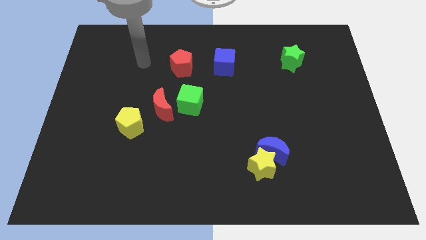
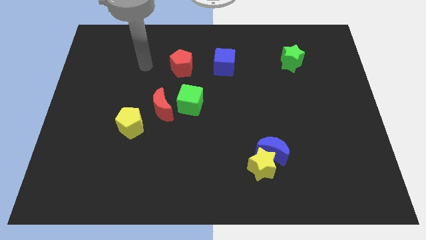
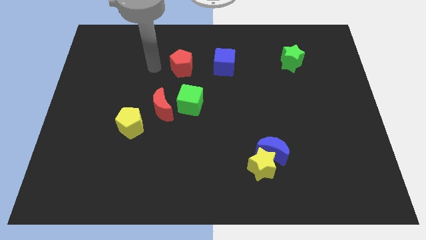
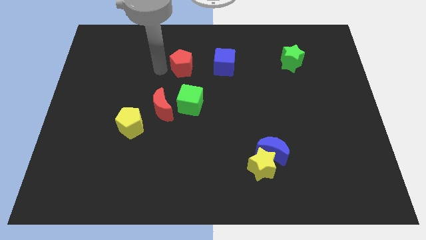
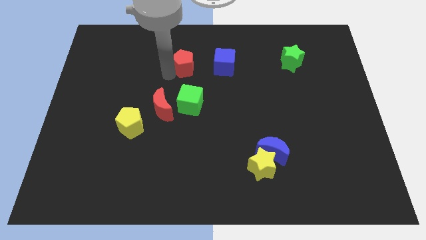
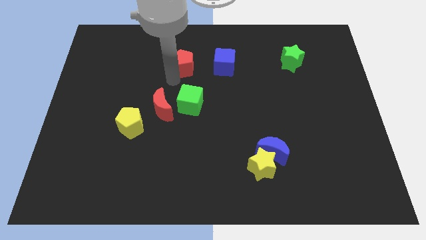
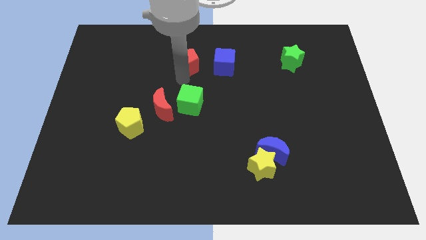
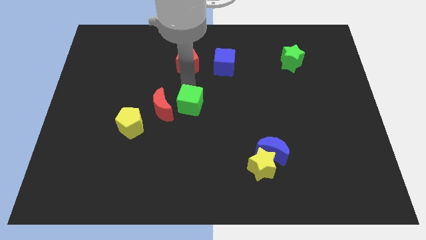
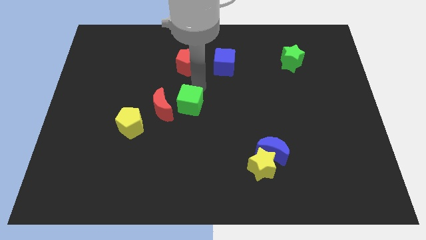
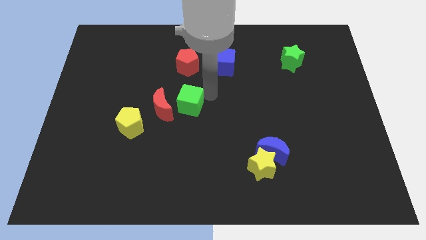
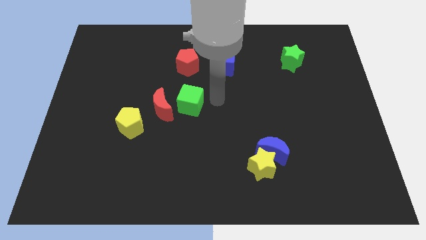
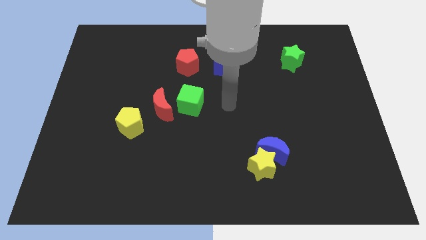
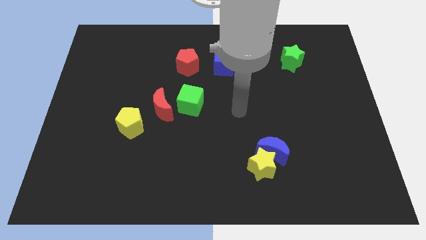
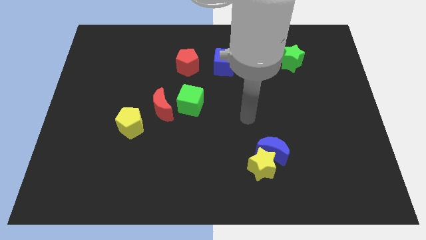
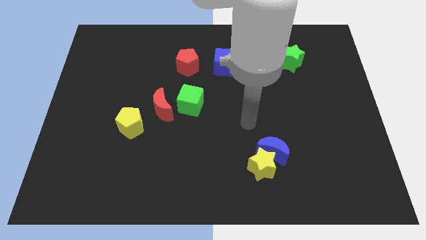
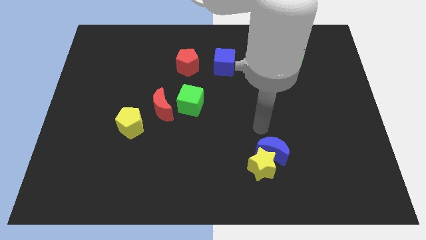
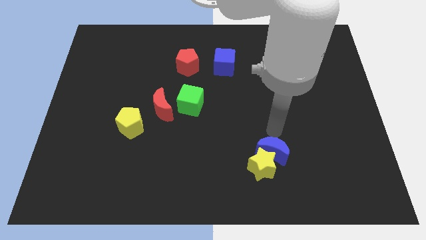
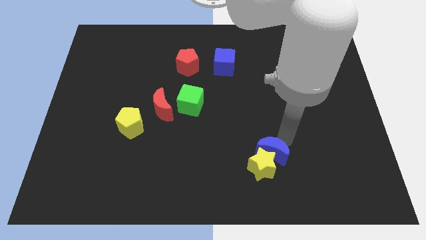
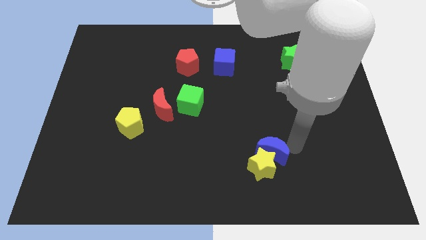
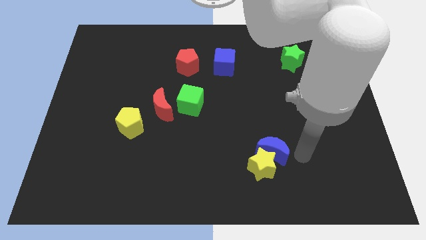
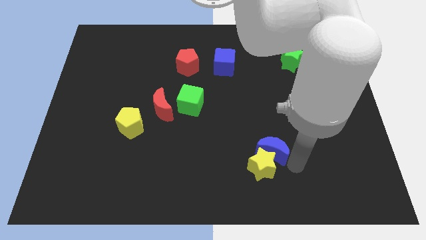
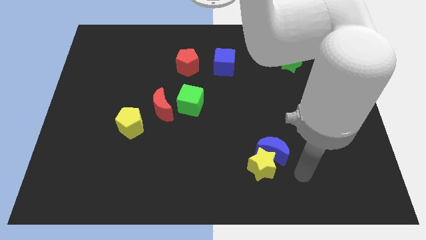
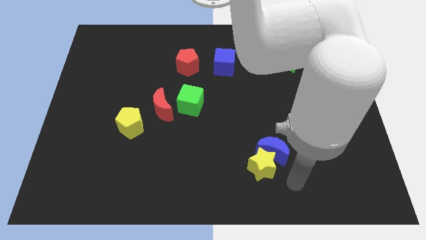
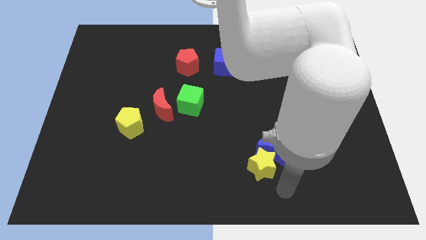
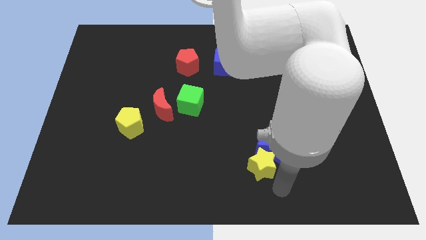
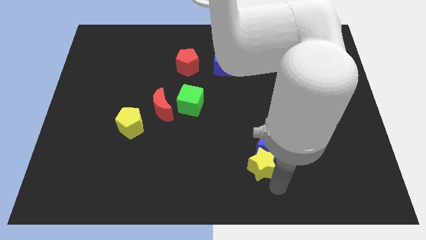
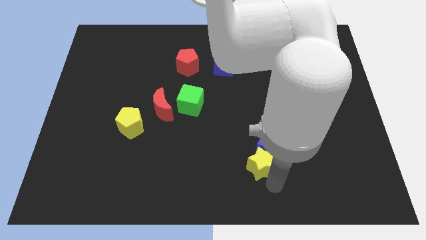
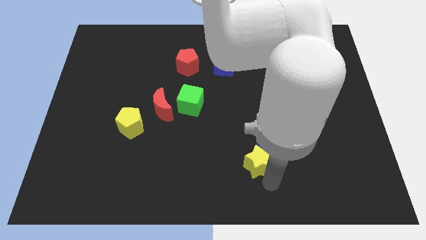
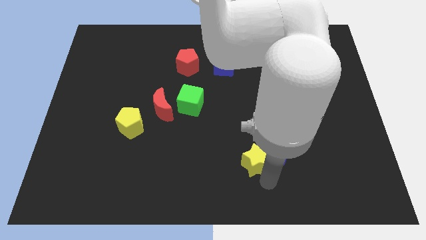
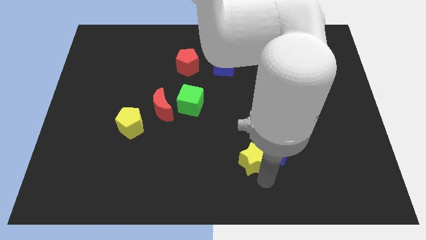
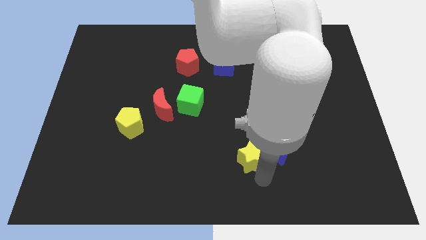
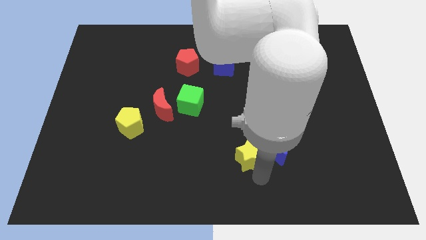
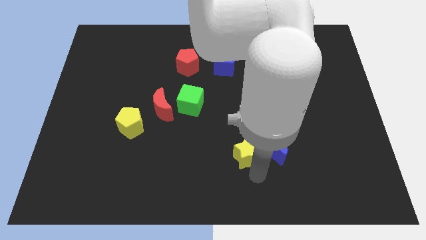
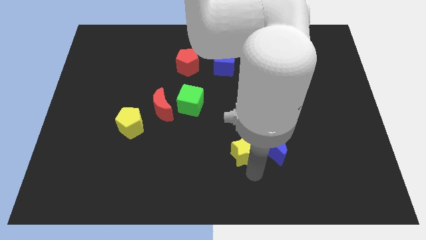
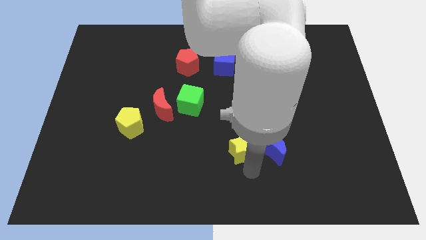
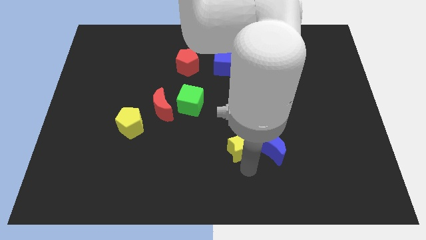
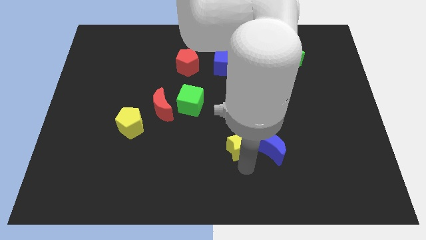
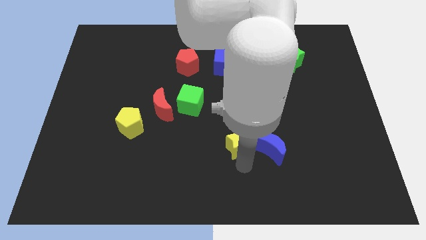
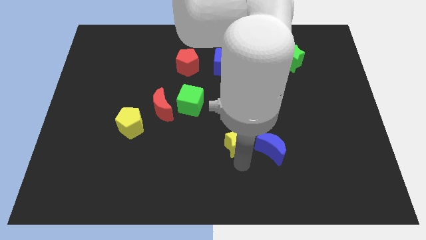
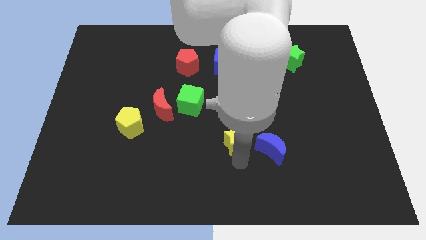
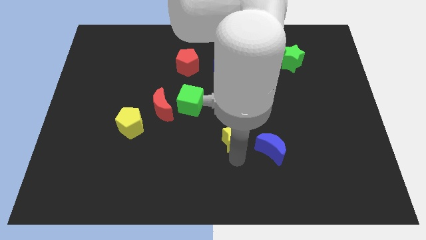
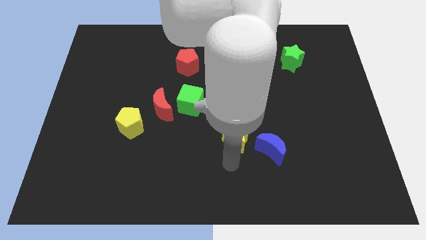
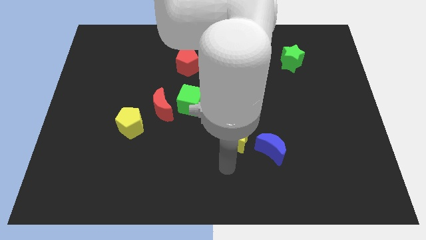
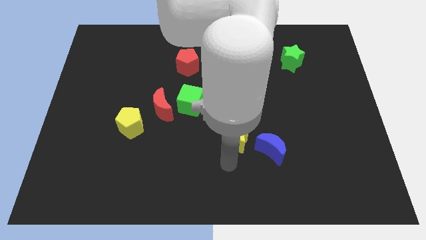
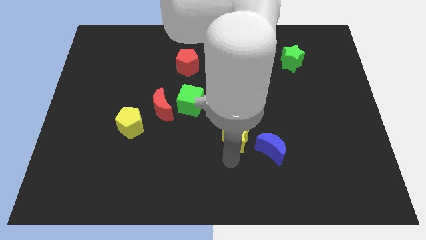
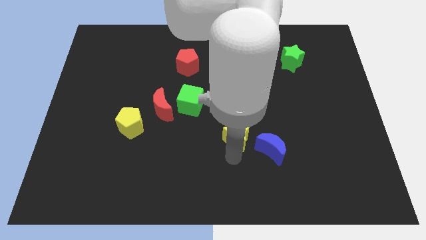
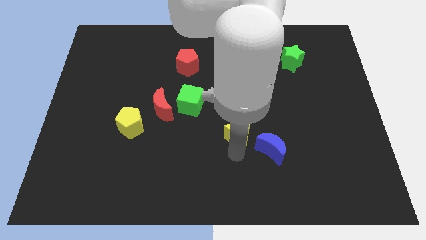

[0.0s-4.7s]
slightly push the yellow star upwards

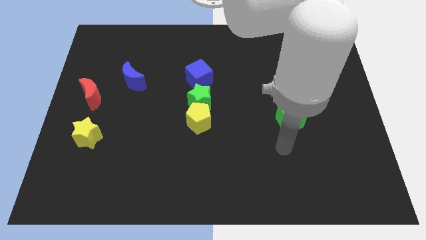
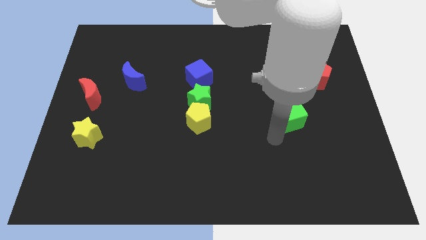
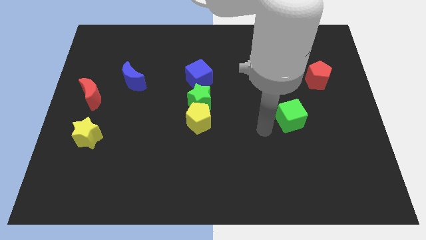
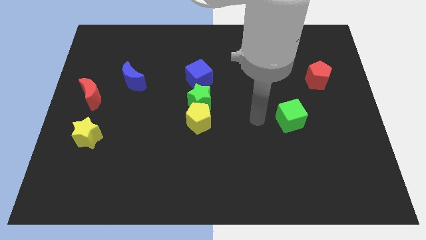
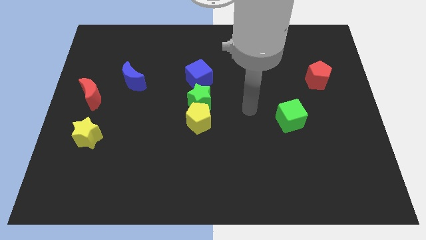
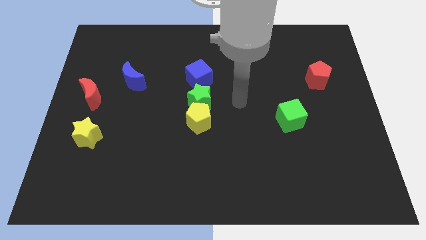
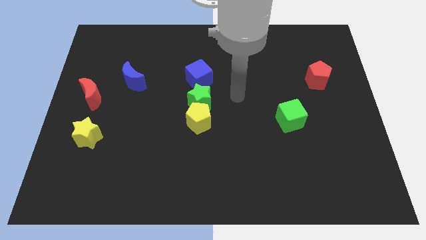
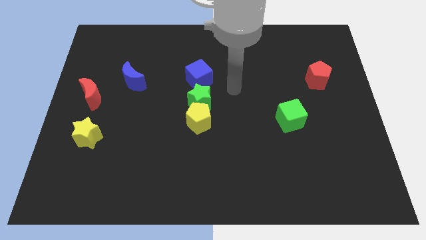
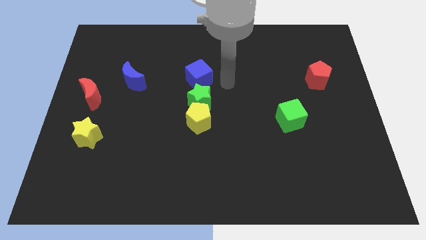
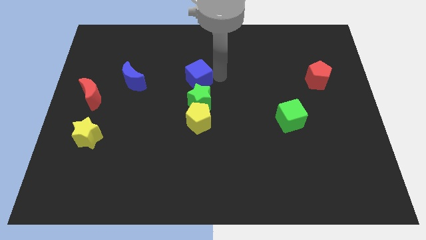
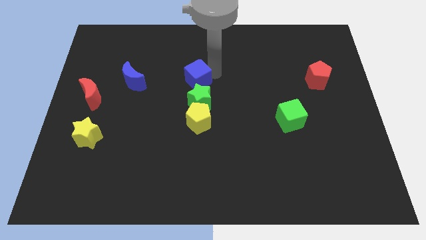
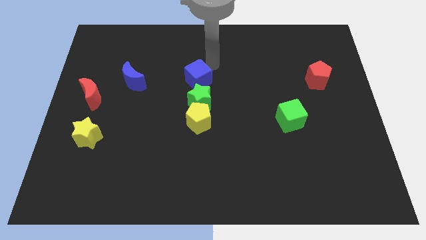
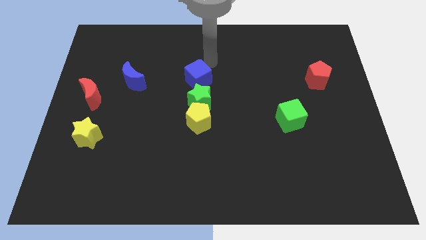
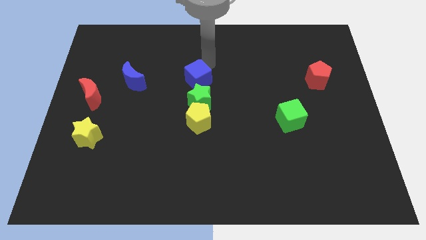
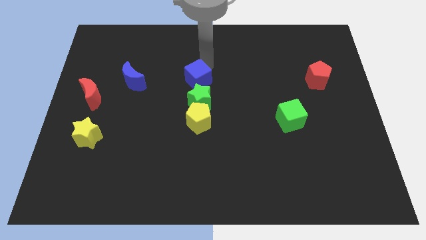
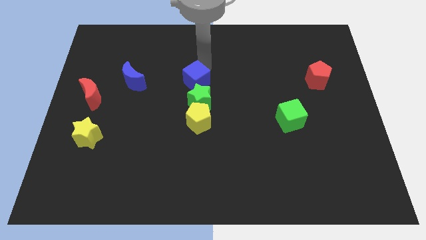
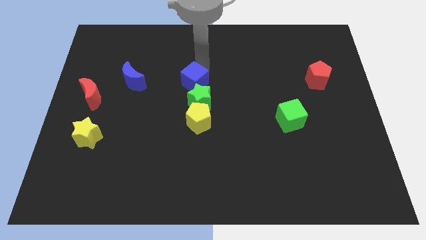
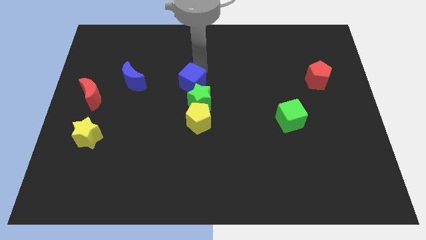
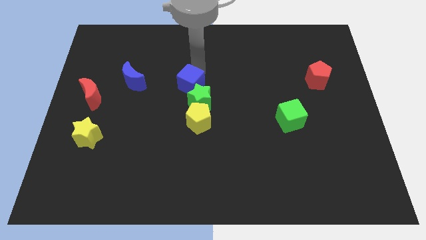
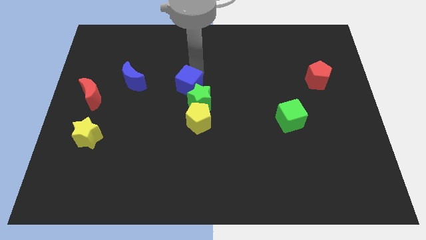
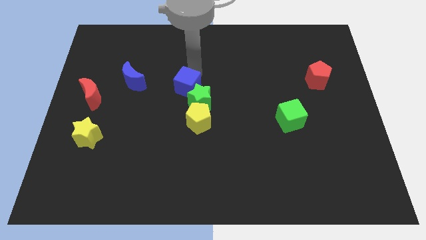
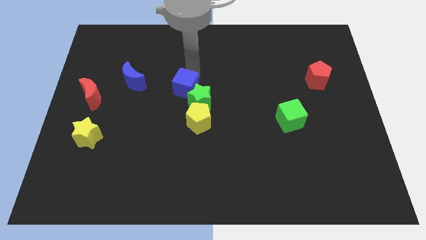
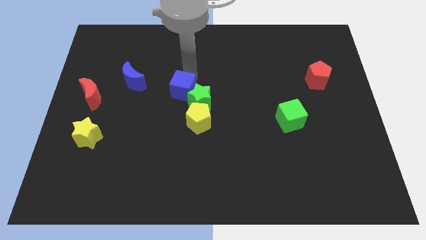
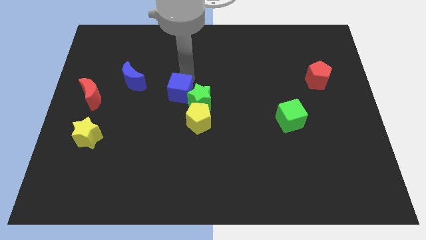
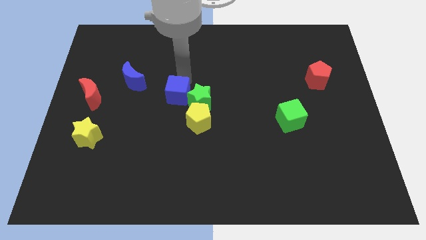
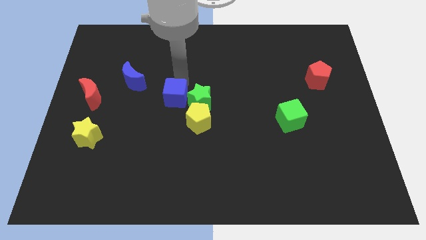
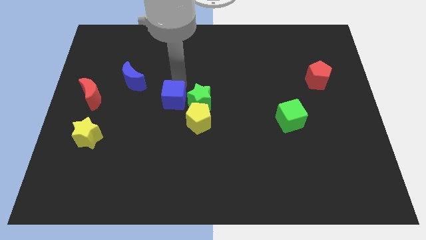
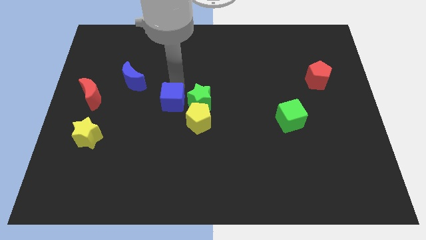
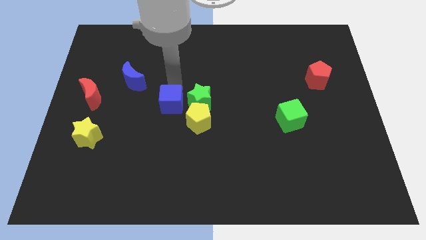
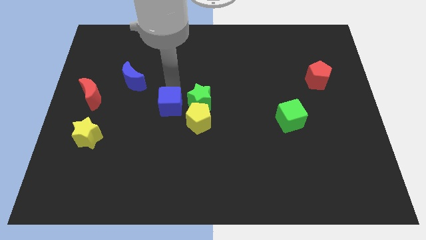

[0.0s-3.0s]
push the blue cube downwards a little bit

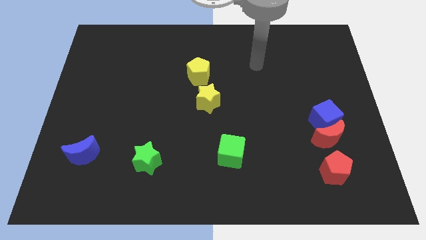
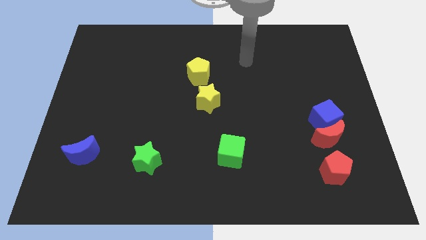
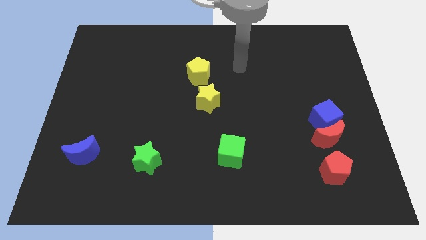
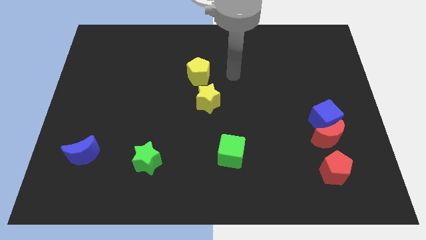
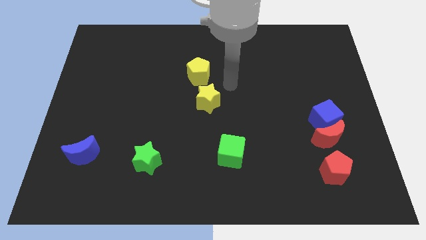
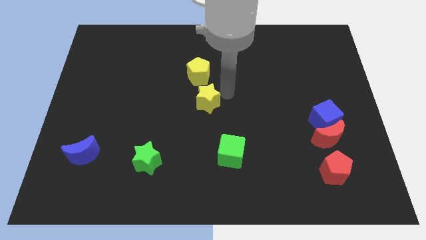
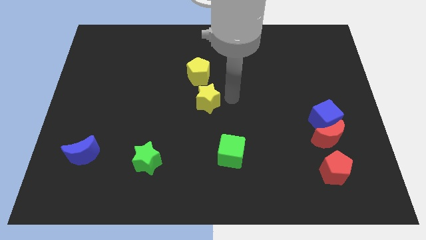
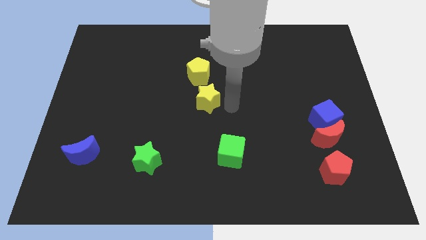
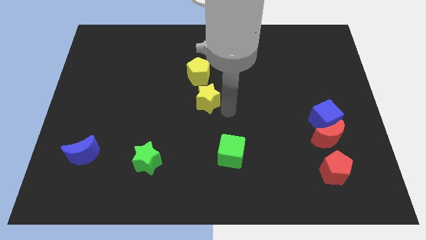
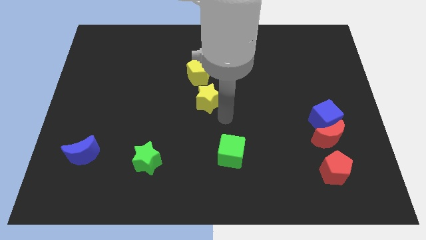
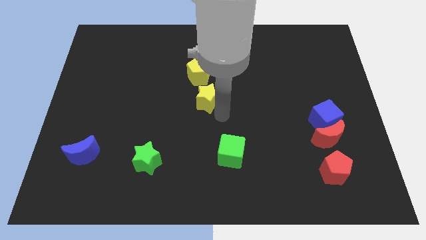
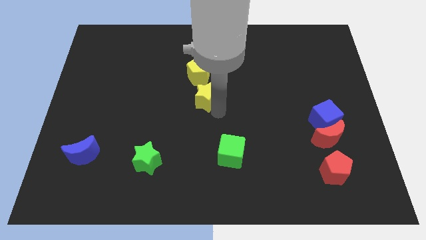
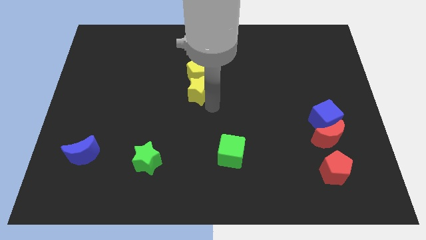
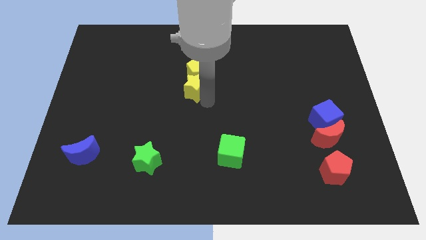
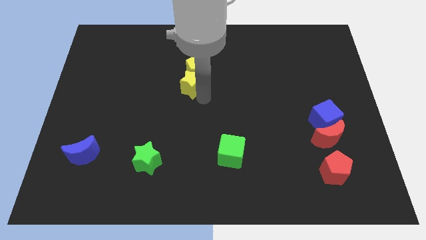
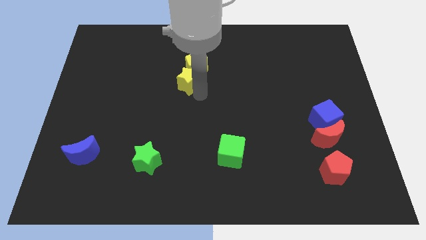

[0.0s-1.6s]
slightly push the yellow star up and to the left
